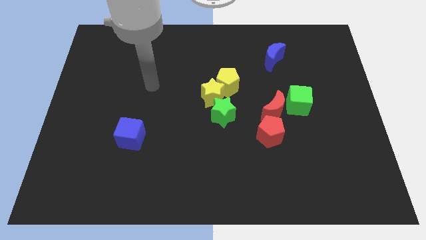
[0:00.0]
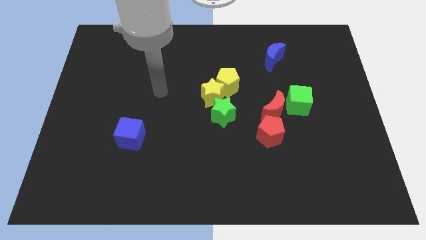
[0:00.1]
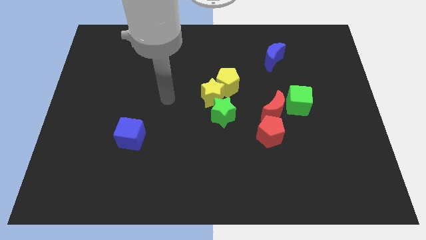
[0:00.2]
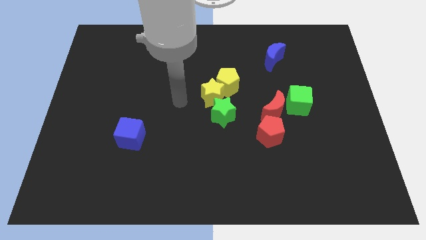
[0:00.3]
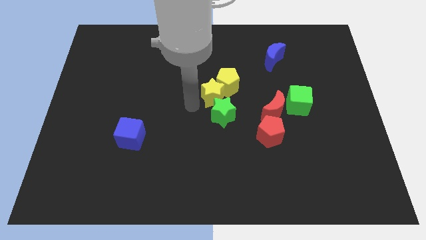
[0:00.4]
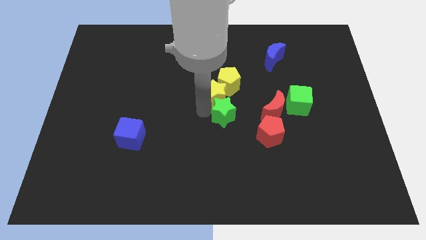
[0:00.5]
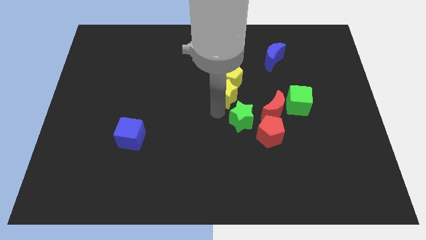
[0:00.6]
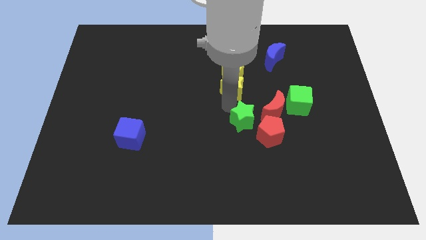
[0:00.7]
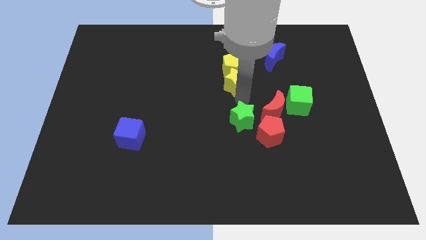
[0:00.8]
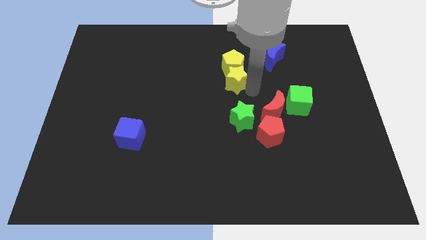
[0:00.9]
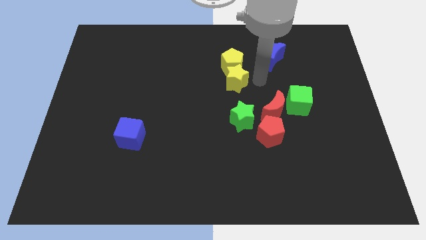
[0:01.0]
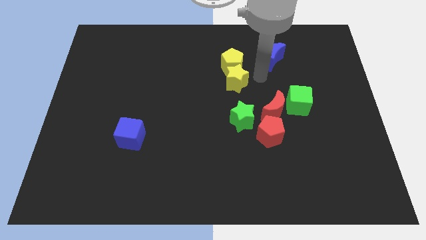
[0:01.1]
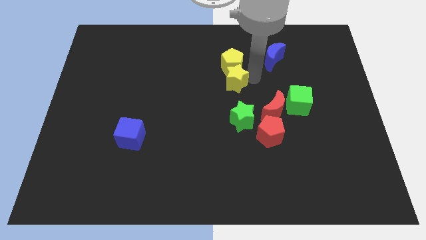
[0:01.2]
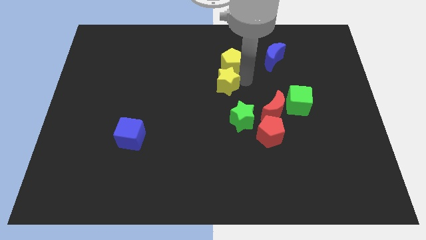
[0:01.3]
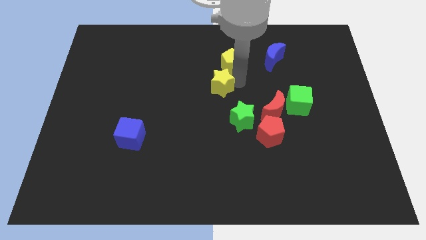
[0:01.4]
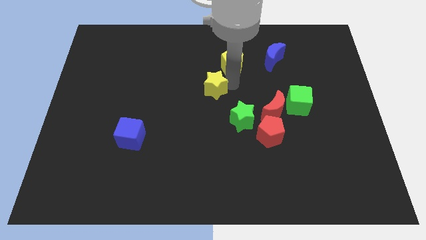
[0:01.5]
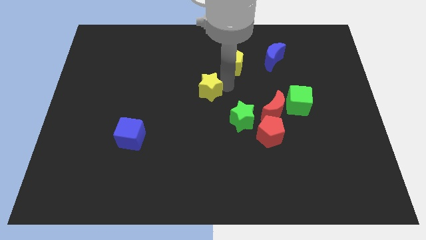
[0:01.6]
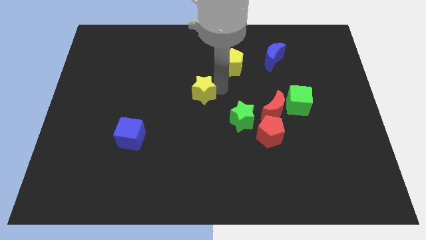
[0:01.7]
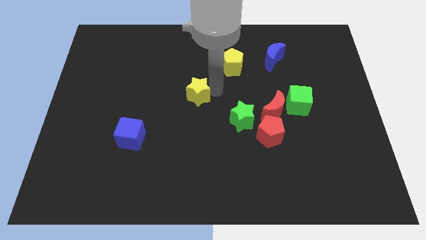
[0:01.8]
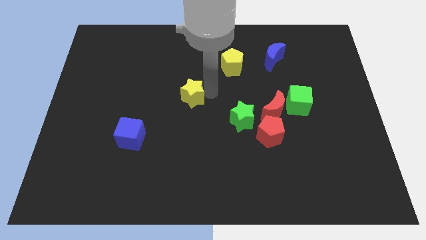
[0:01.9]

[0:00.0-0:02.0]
move the yellow star away from the yellow pentagon and green star

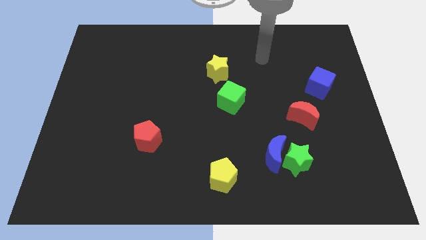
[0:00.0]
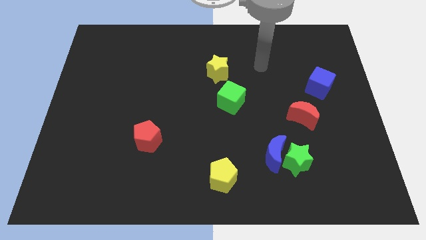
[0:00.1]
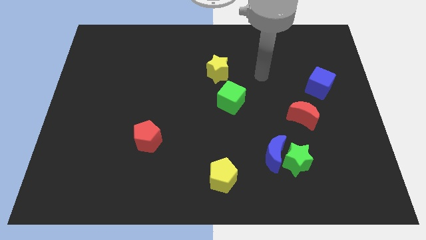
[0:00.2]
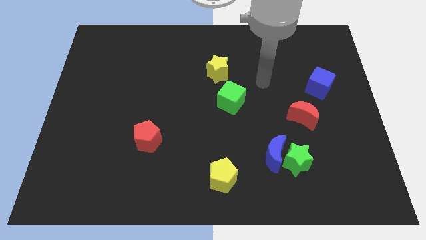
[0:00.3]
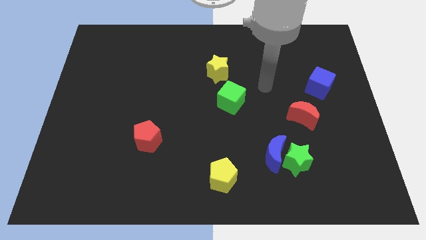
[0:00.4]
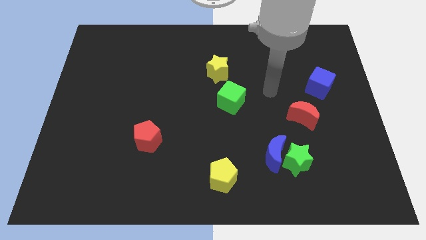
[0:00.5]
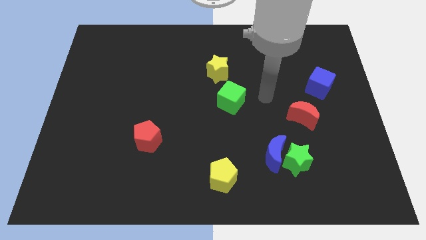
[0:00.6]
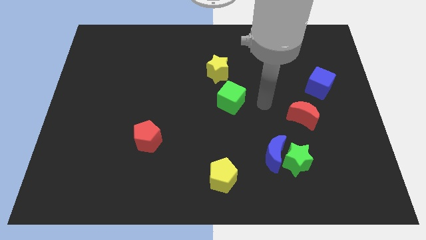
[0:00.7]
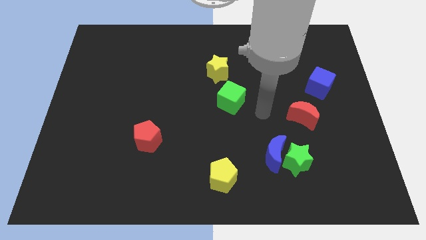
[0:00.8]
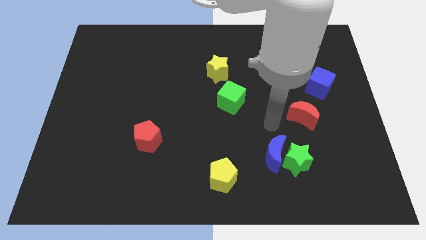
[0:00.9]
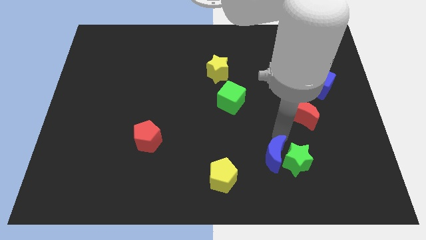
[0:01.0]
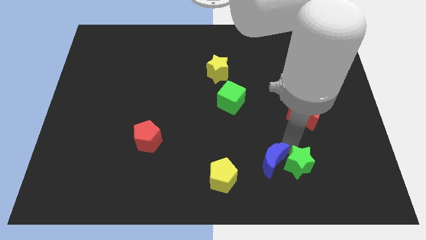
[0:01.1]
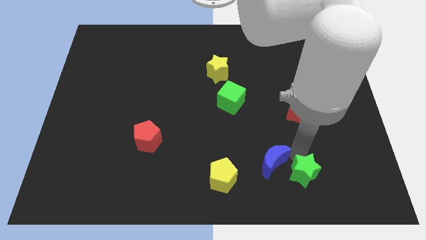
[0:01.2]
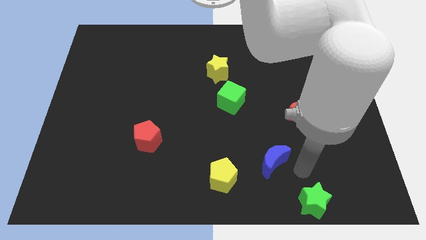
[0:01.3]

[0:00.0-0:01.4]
separate the blue moon from the green star

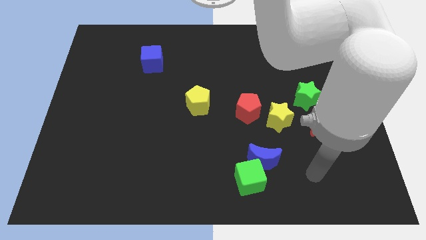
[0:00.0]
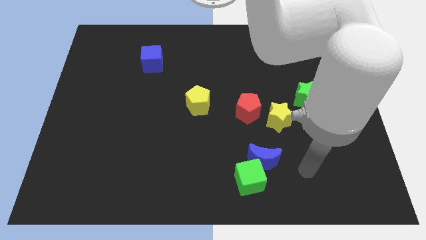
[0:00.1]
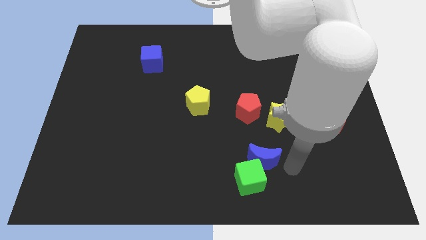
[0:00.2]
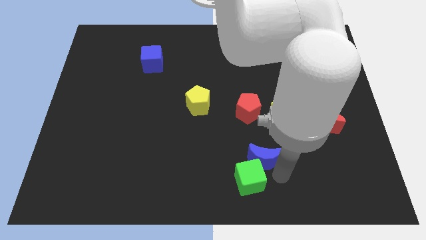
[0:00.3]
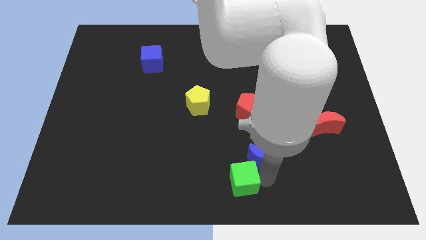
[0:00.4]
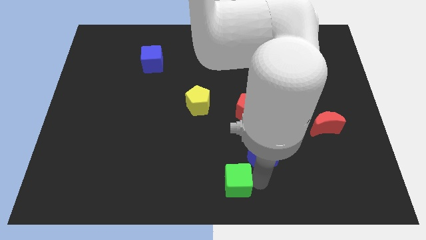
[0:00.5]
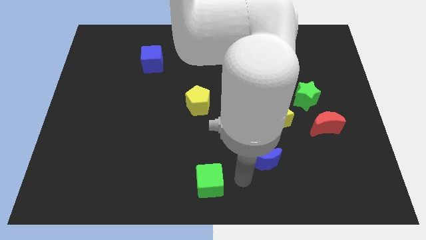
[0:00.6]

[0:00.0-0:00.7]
separate the blue moon from the green cube

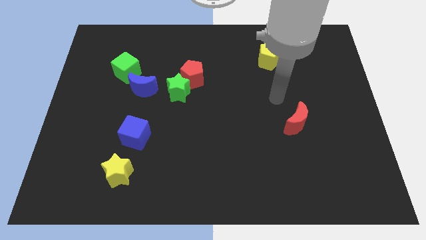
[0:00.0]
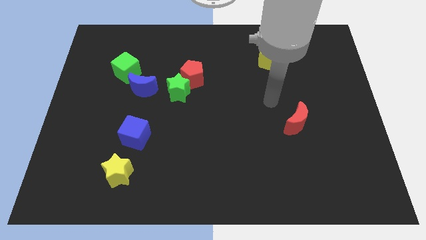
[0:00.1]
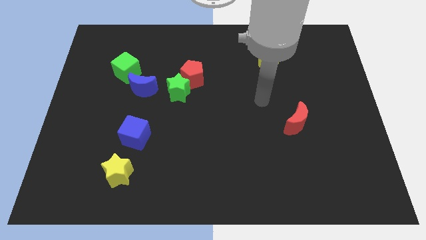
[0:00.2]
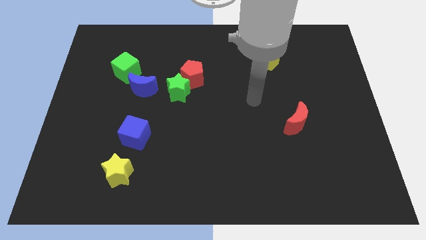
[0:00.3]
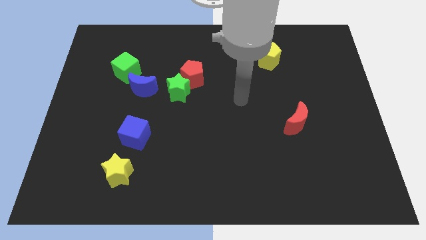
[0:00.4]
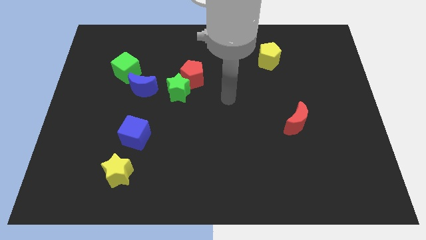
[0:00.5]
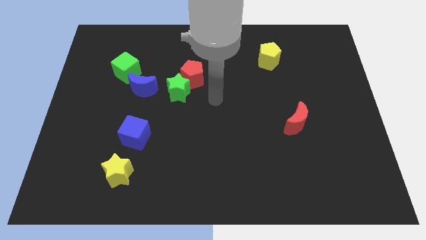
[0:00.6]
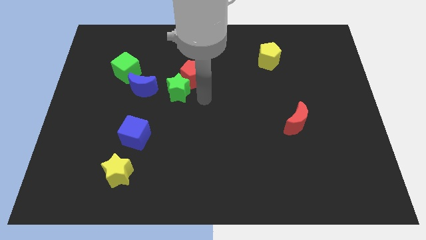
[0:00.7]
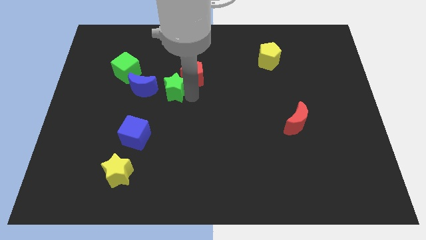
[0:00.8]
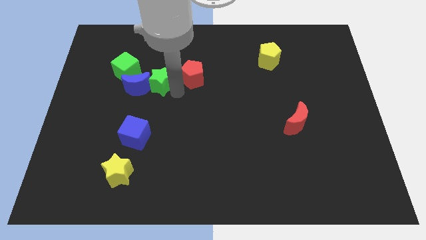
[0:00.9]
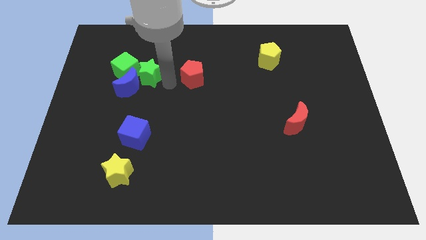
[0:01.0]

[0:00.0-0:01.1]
separate the red pentagon from the green star

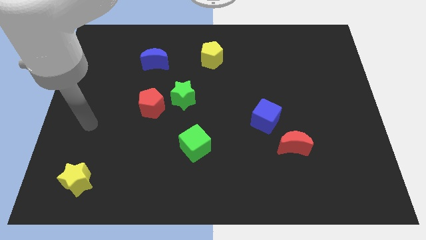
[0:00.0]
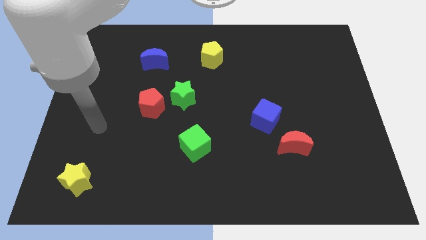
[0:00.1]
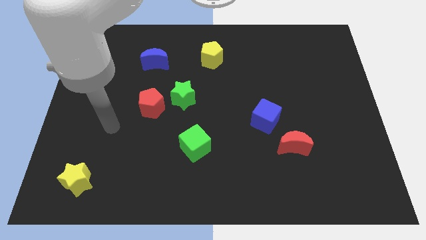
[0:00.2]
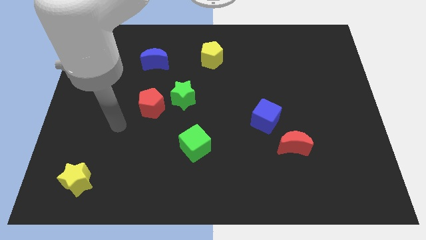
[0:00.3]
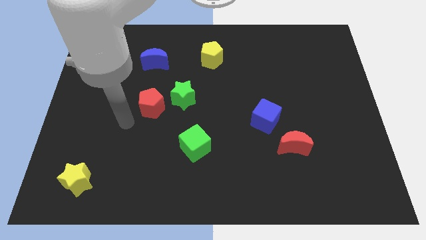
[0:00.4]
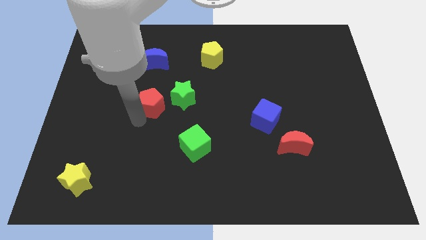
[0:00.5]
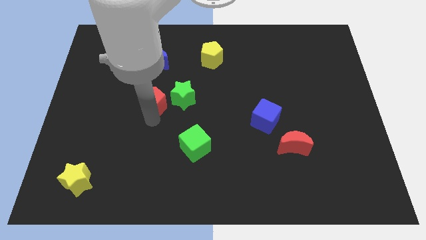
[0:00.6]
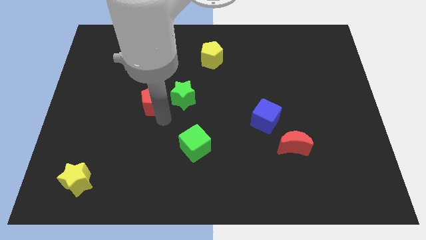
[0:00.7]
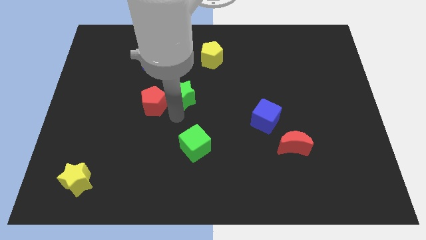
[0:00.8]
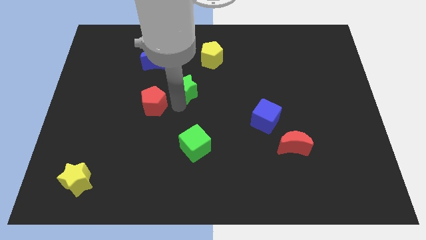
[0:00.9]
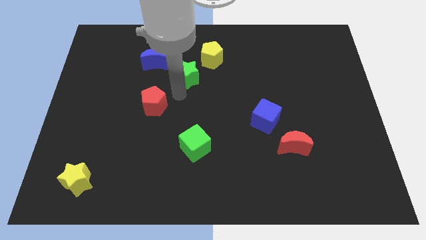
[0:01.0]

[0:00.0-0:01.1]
move the red pentagon away from the green star

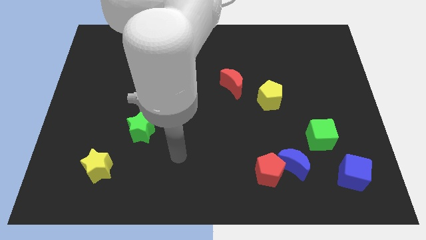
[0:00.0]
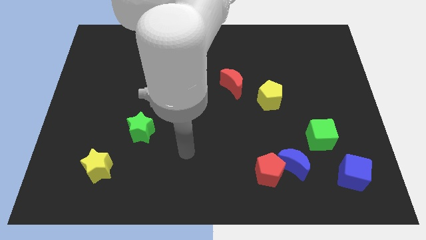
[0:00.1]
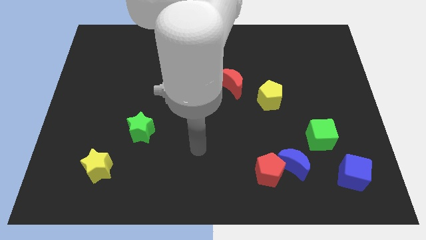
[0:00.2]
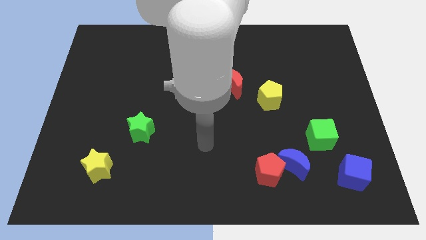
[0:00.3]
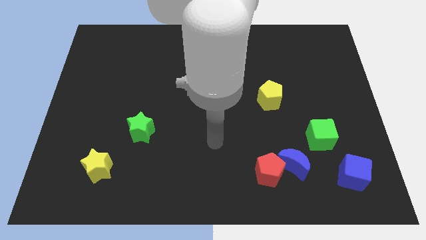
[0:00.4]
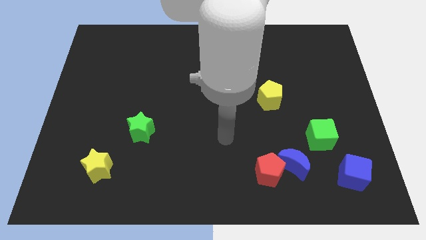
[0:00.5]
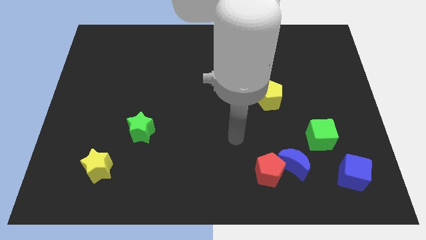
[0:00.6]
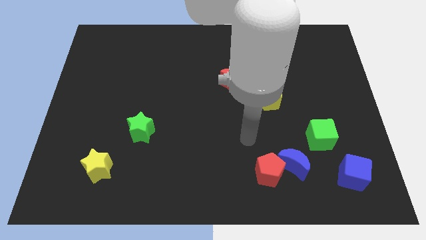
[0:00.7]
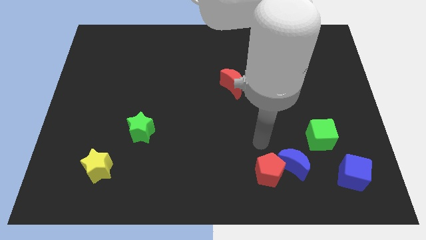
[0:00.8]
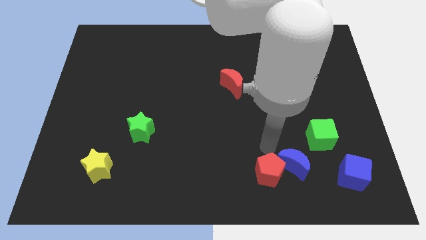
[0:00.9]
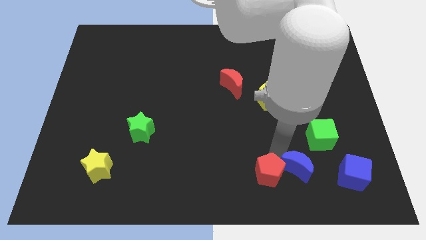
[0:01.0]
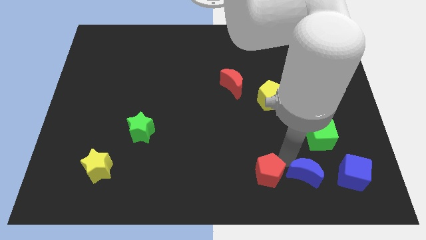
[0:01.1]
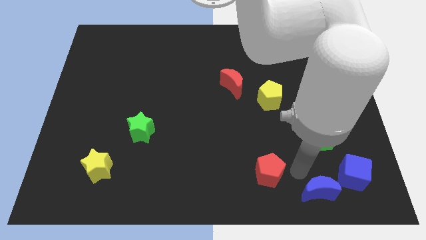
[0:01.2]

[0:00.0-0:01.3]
move the red pentagon away from the blue moon

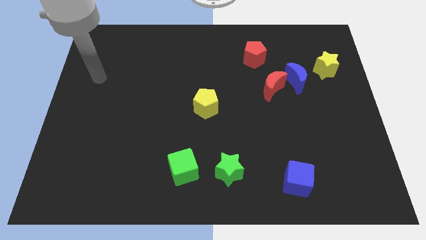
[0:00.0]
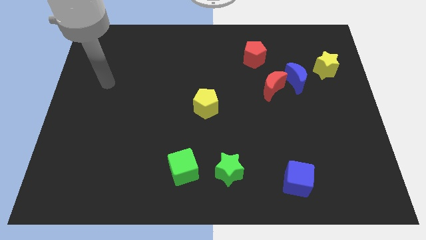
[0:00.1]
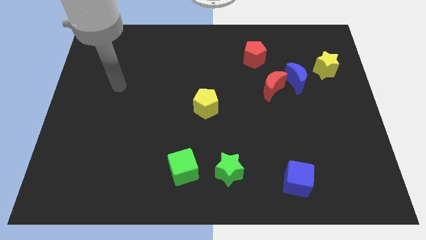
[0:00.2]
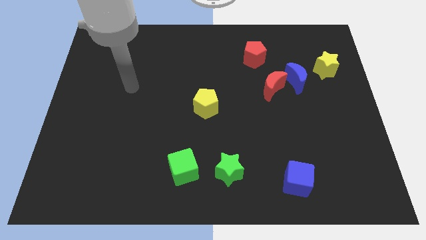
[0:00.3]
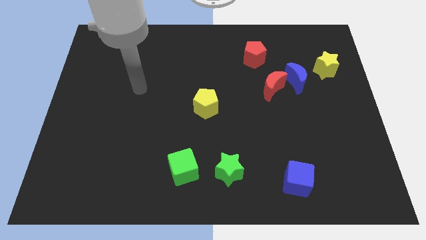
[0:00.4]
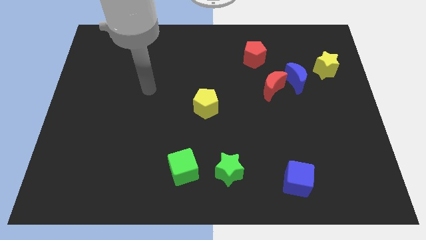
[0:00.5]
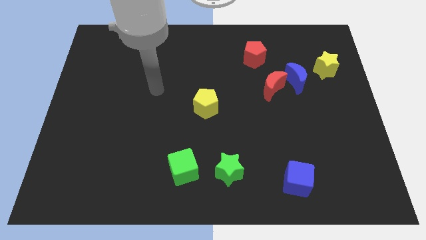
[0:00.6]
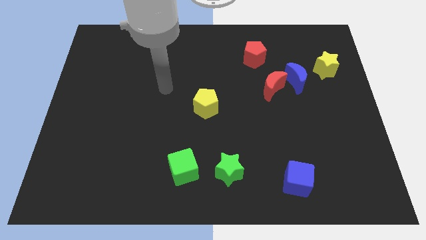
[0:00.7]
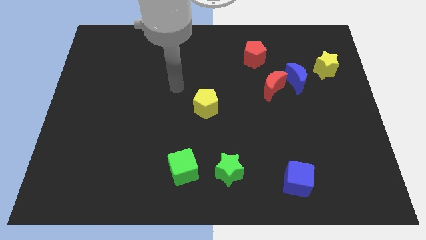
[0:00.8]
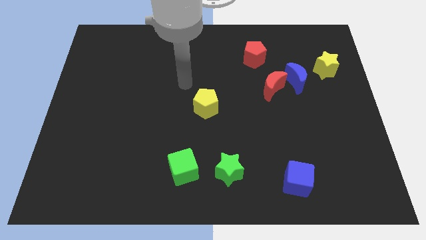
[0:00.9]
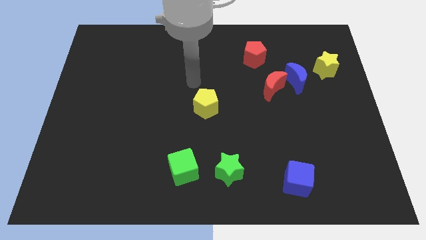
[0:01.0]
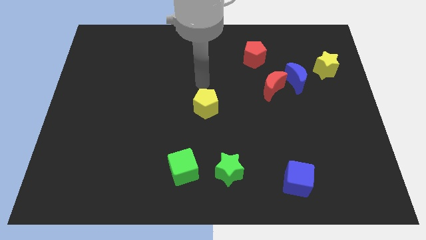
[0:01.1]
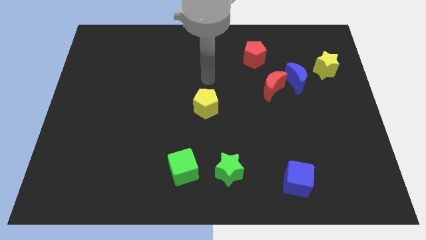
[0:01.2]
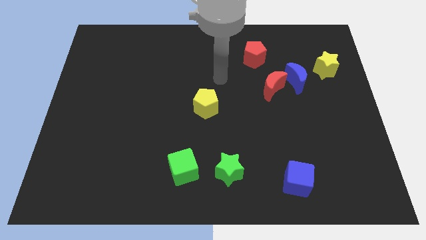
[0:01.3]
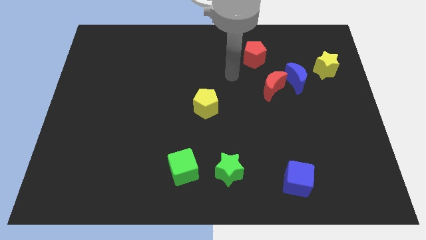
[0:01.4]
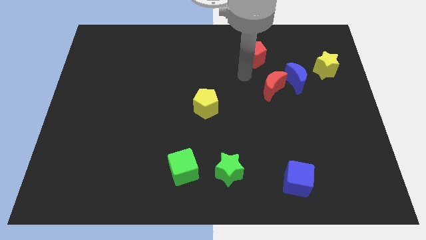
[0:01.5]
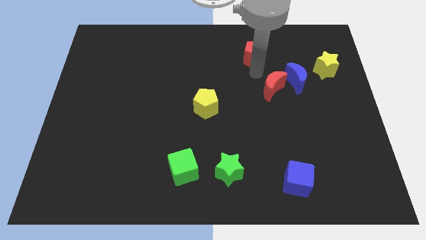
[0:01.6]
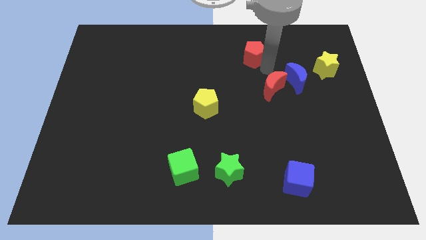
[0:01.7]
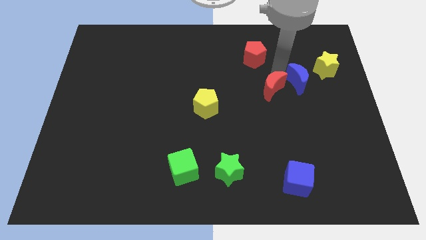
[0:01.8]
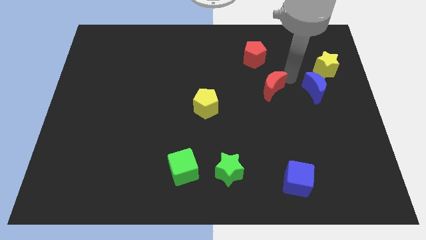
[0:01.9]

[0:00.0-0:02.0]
pull the red moon apart from the blue moon
